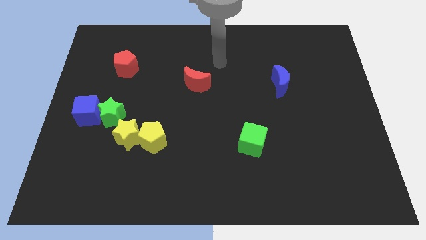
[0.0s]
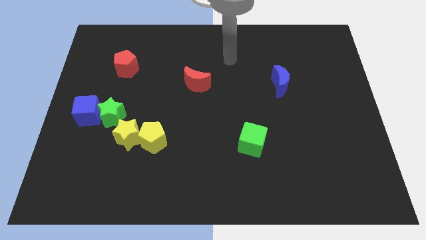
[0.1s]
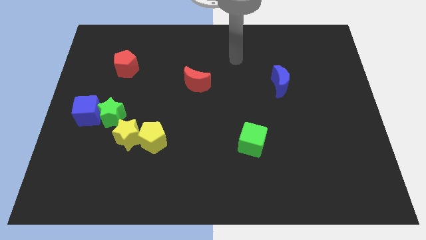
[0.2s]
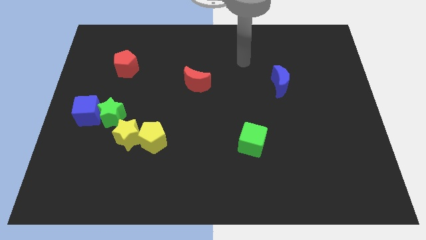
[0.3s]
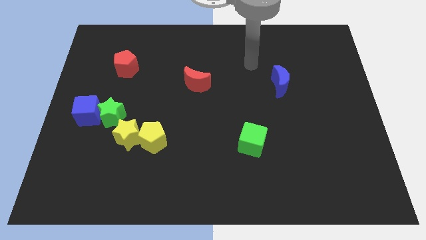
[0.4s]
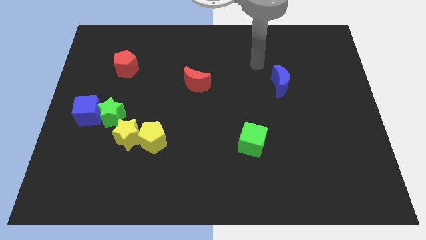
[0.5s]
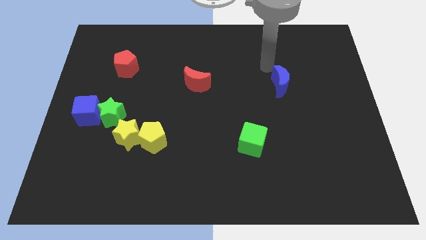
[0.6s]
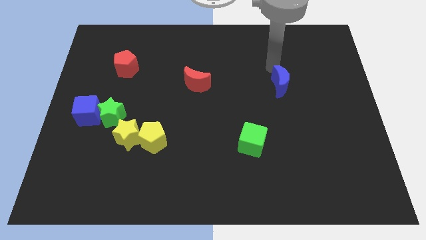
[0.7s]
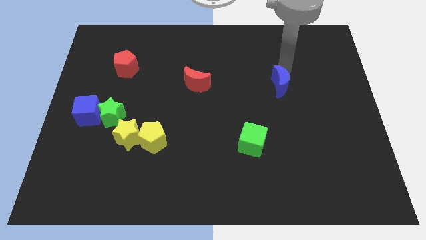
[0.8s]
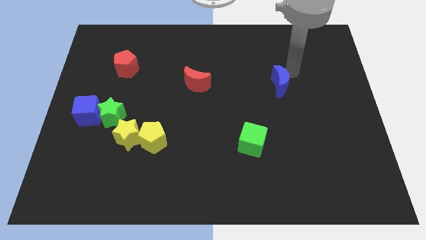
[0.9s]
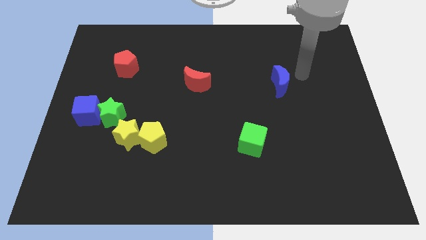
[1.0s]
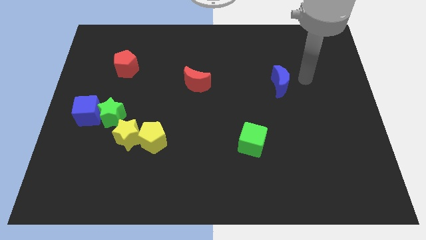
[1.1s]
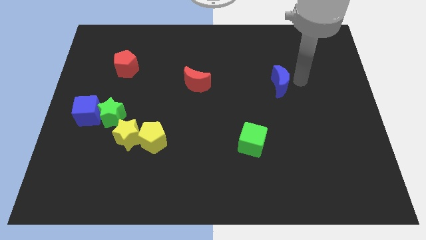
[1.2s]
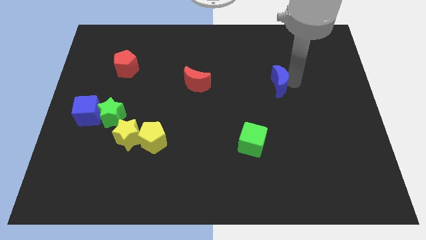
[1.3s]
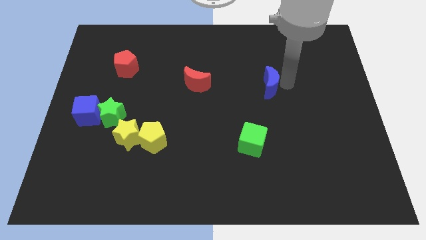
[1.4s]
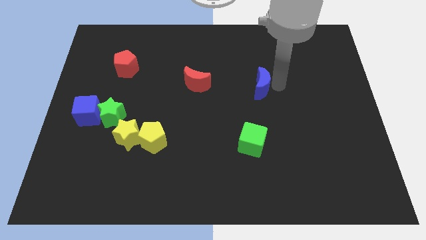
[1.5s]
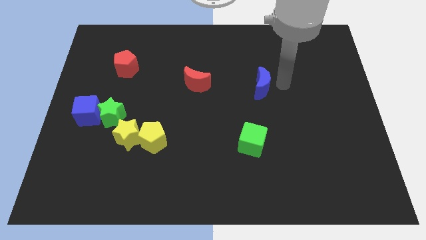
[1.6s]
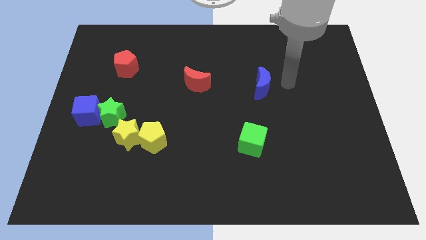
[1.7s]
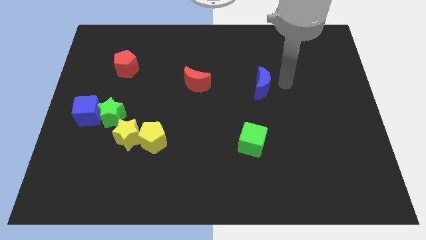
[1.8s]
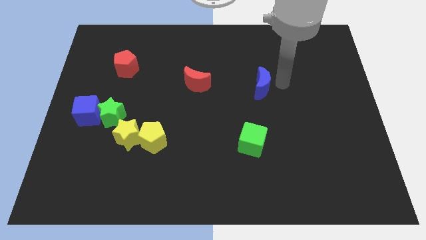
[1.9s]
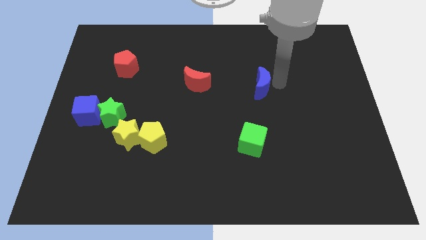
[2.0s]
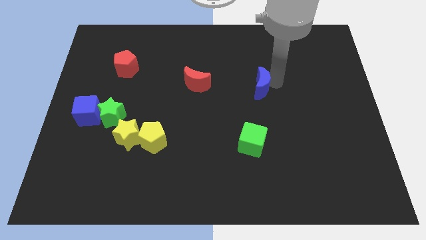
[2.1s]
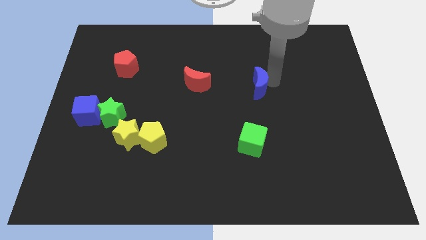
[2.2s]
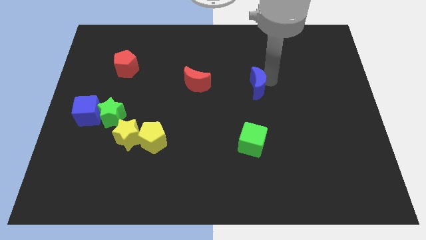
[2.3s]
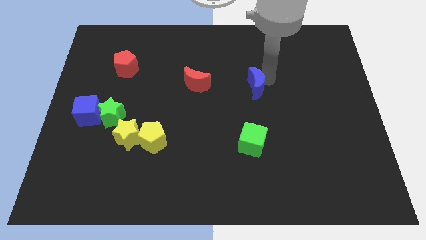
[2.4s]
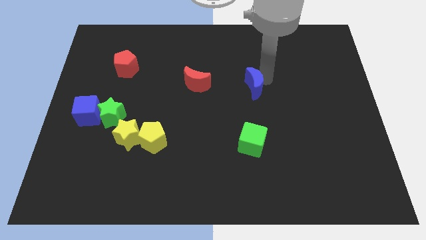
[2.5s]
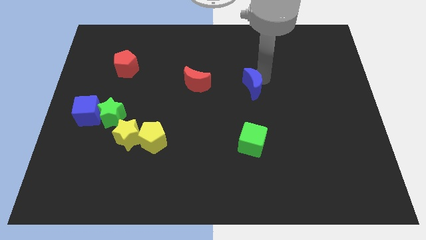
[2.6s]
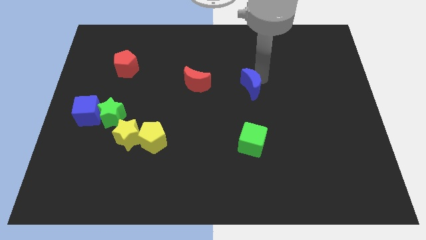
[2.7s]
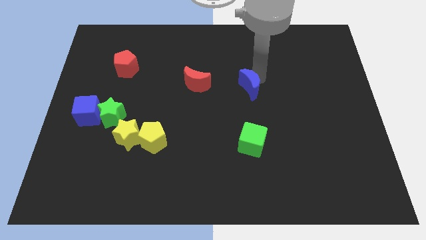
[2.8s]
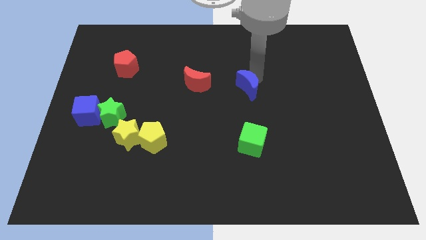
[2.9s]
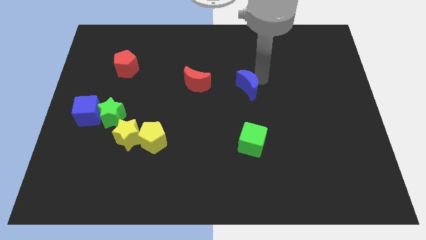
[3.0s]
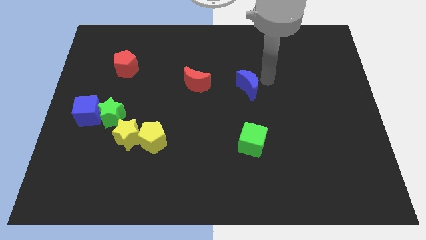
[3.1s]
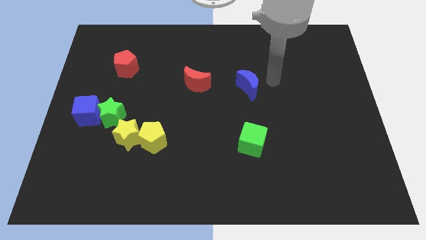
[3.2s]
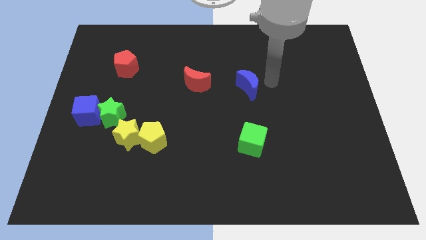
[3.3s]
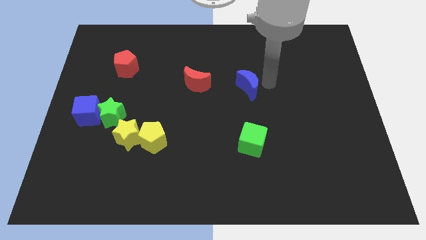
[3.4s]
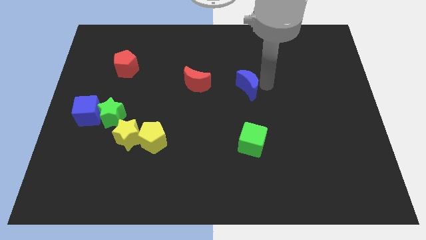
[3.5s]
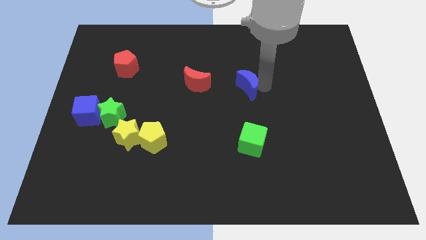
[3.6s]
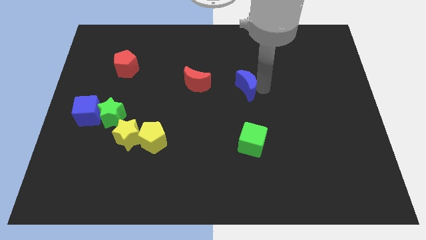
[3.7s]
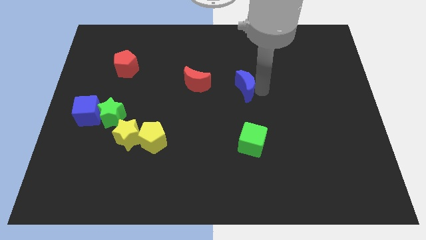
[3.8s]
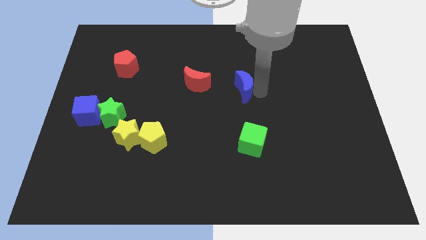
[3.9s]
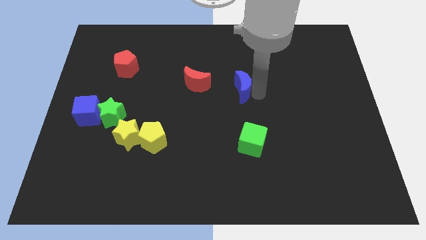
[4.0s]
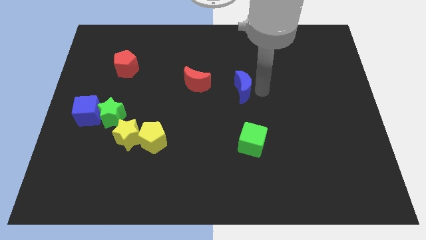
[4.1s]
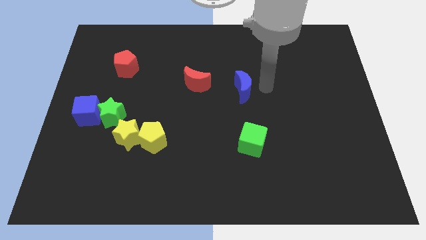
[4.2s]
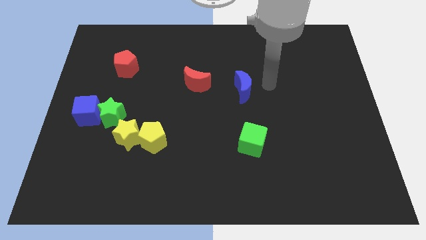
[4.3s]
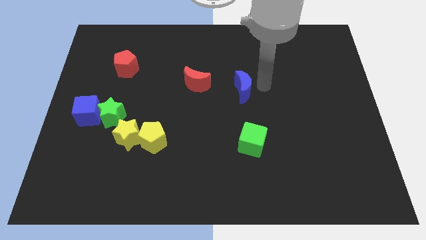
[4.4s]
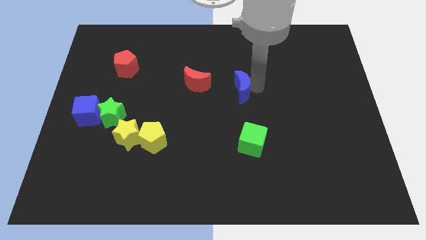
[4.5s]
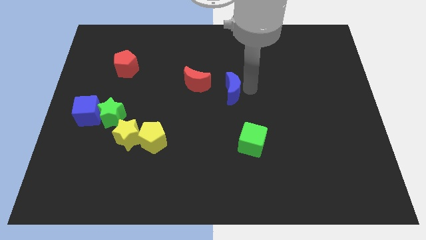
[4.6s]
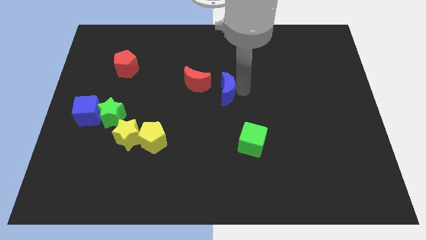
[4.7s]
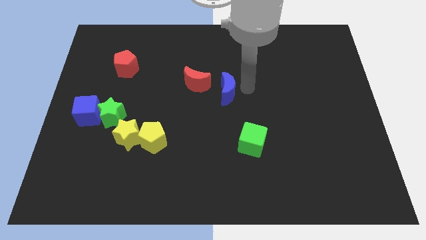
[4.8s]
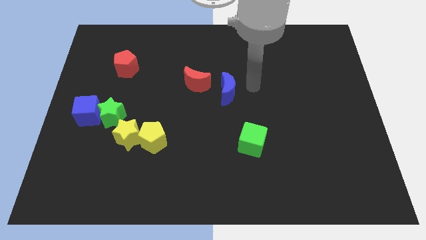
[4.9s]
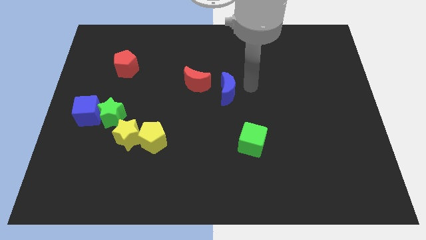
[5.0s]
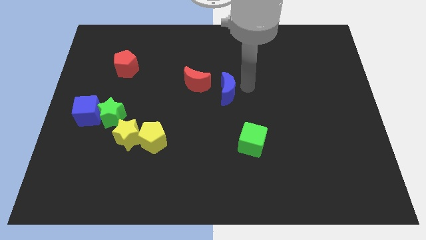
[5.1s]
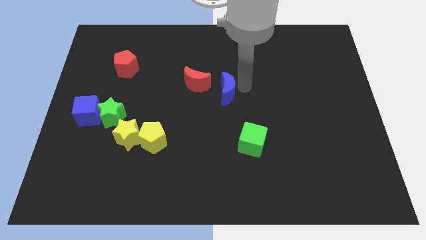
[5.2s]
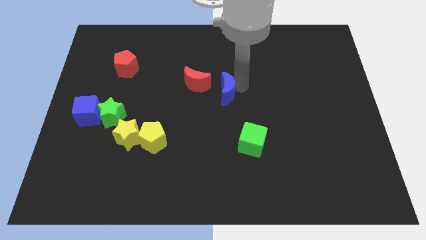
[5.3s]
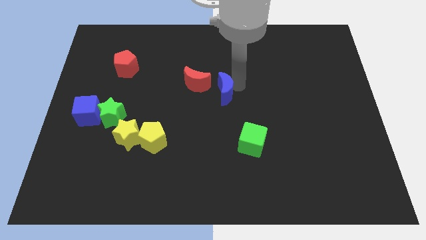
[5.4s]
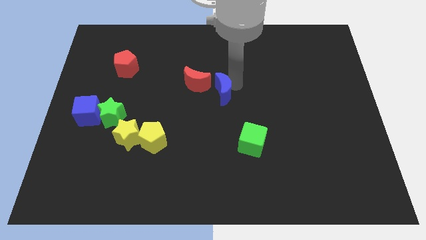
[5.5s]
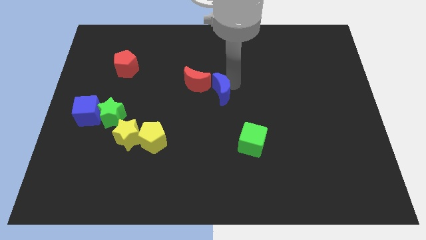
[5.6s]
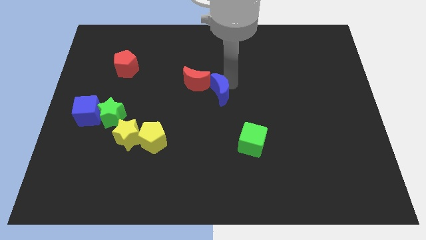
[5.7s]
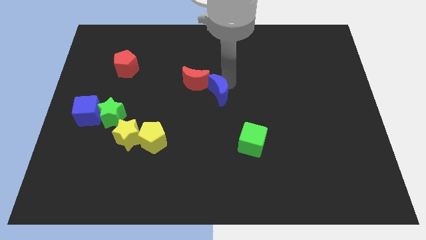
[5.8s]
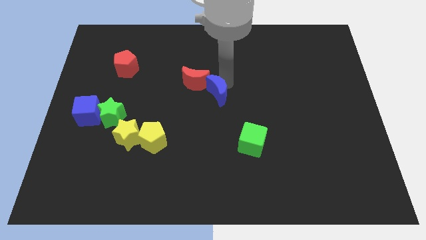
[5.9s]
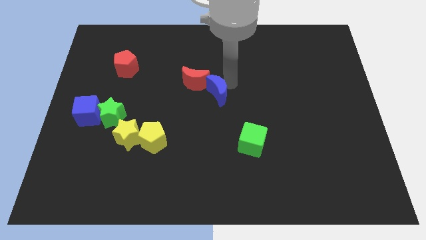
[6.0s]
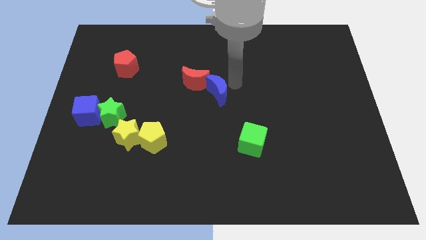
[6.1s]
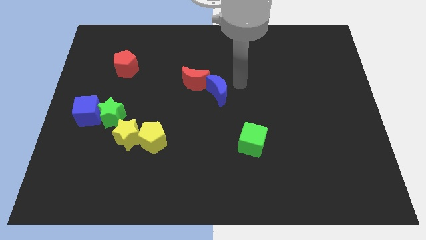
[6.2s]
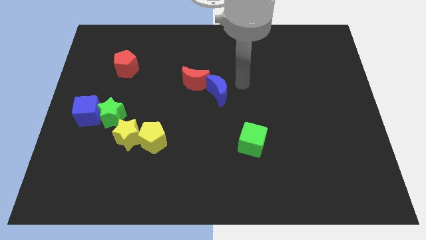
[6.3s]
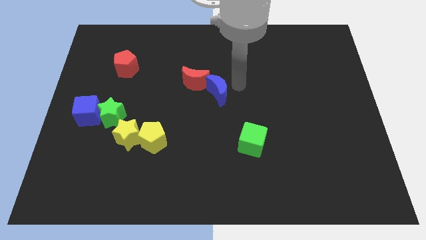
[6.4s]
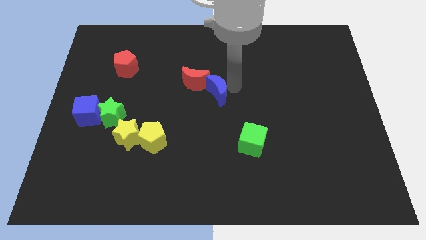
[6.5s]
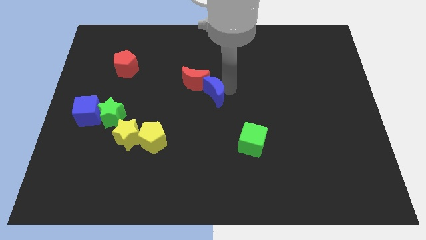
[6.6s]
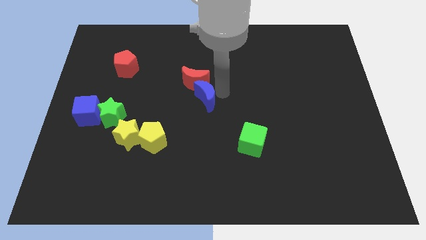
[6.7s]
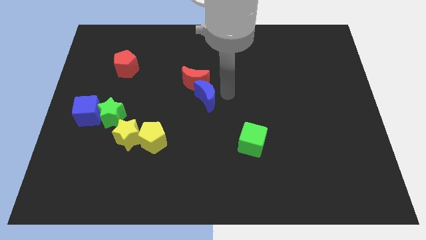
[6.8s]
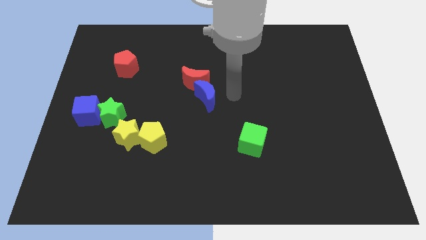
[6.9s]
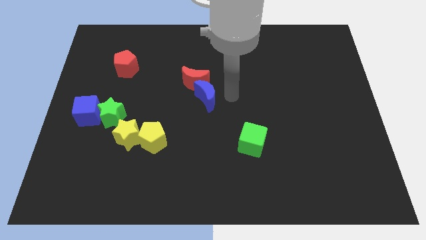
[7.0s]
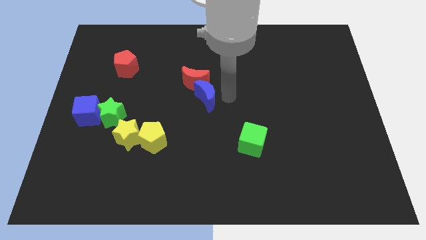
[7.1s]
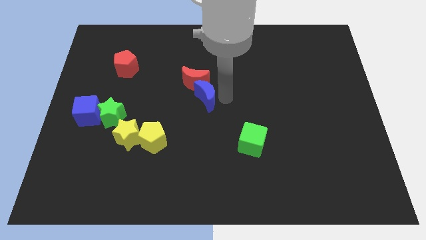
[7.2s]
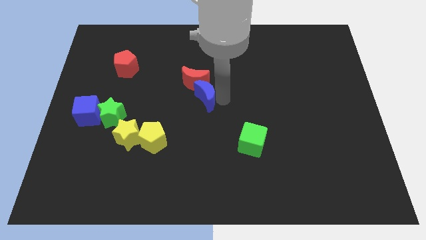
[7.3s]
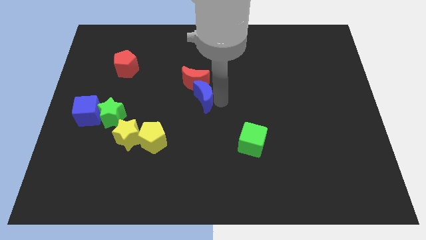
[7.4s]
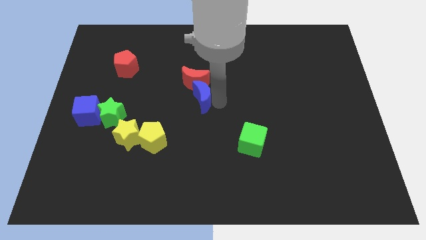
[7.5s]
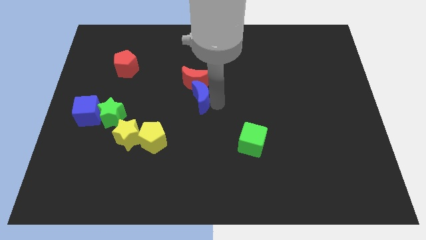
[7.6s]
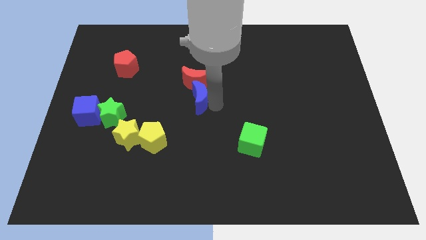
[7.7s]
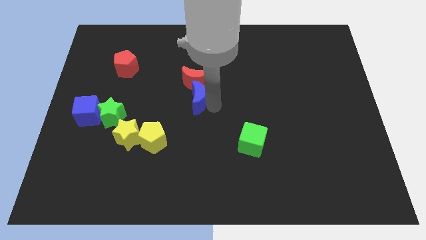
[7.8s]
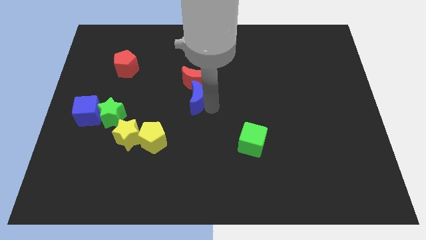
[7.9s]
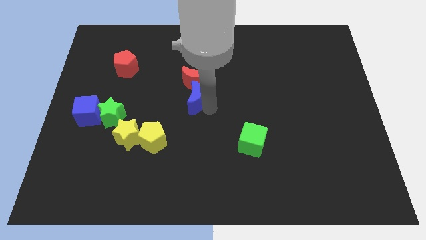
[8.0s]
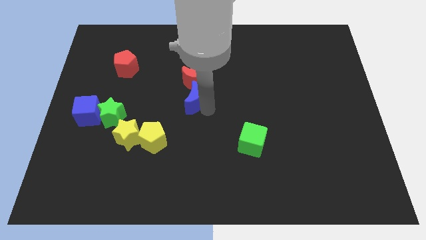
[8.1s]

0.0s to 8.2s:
push the blue moon to the left

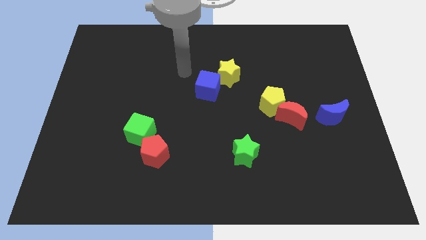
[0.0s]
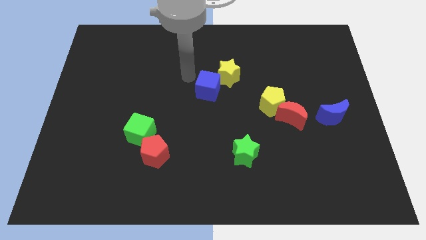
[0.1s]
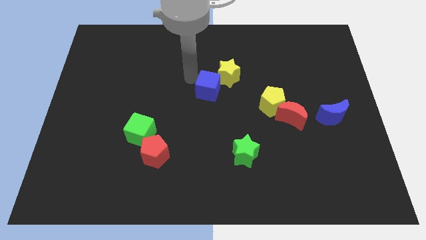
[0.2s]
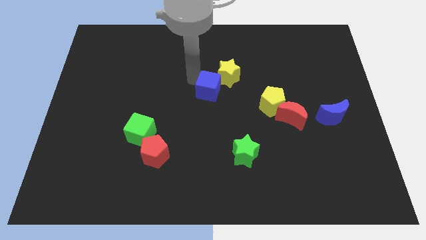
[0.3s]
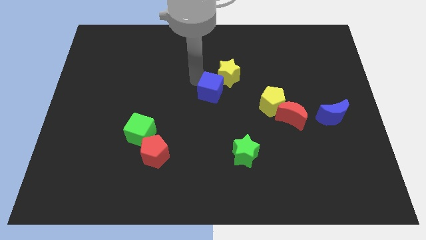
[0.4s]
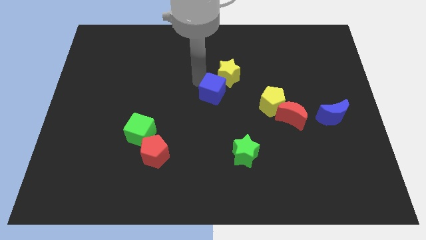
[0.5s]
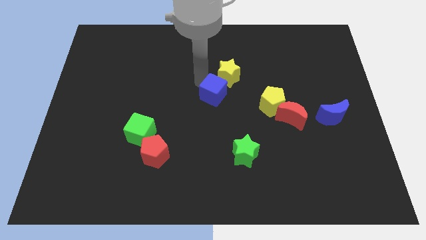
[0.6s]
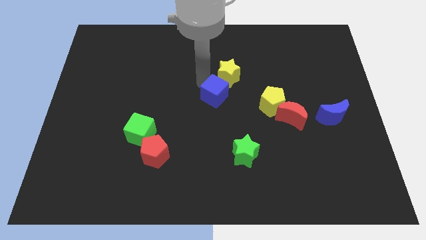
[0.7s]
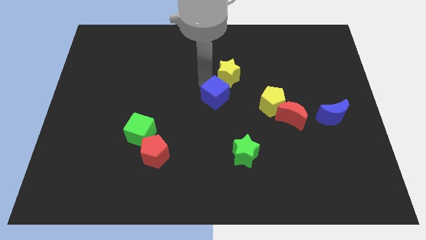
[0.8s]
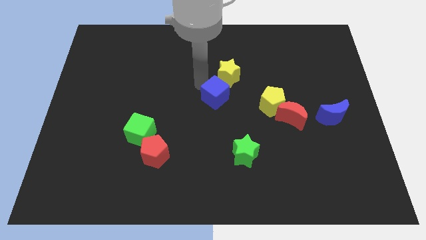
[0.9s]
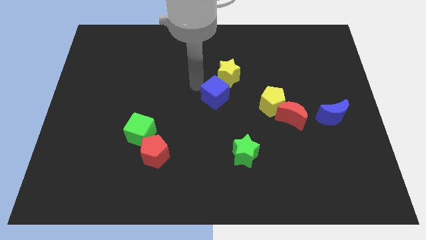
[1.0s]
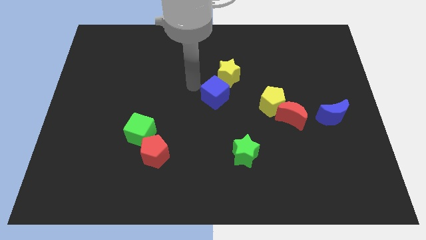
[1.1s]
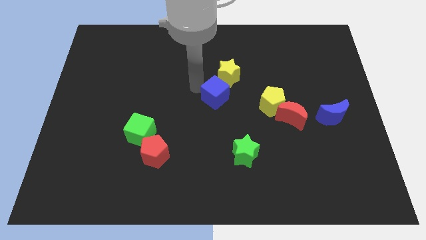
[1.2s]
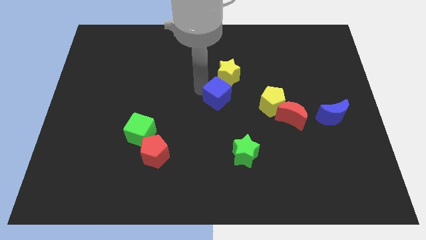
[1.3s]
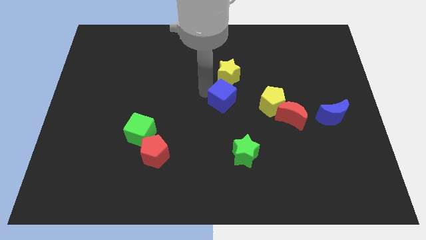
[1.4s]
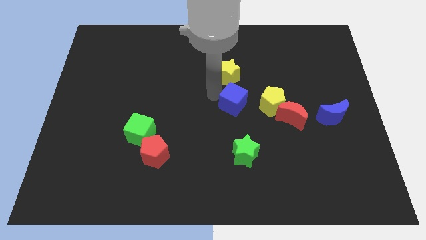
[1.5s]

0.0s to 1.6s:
slightly push the blue cube diagonally down and right
